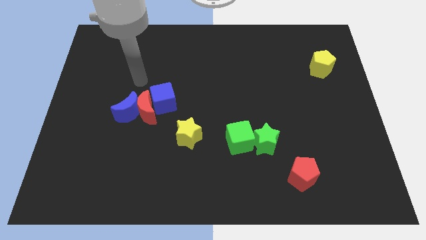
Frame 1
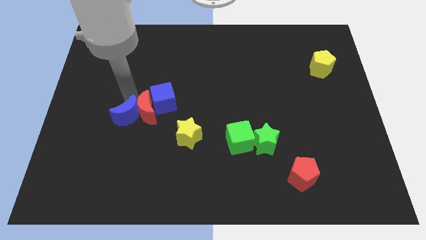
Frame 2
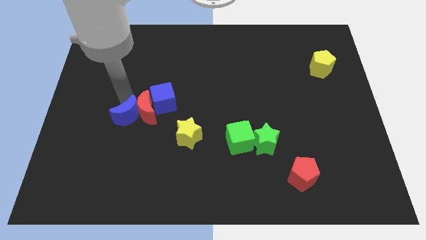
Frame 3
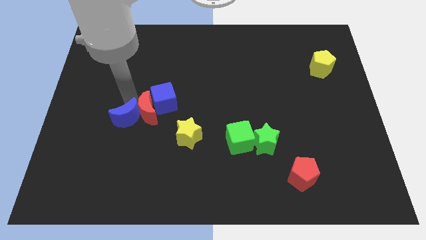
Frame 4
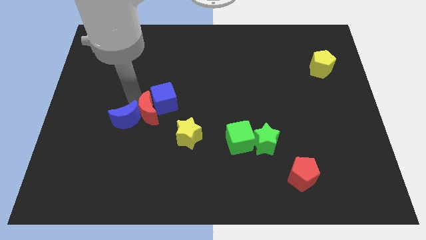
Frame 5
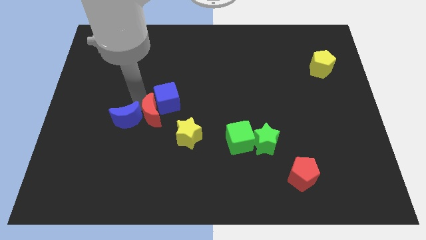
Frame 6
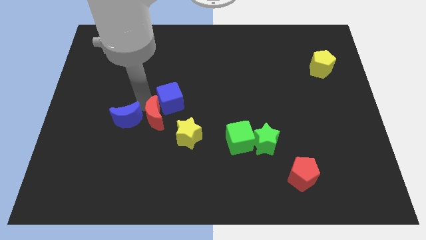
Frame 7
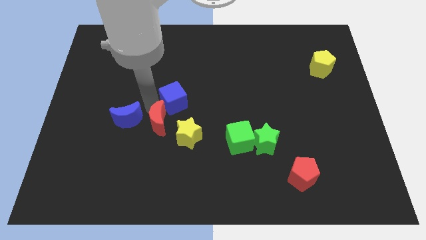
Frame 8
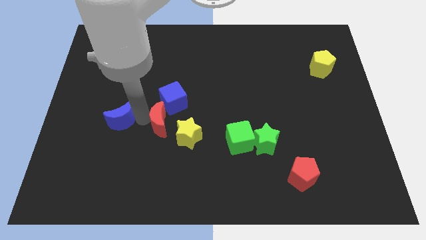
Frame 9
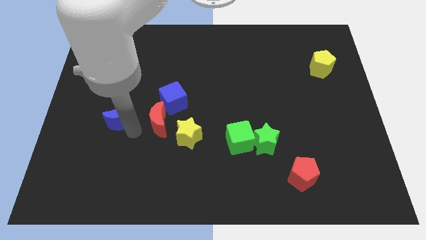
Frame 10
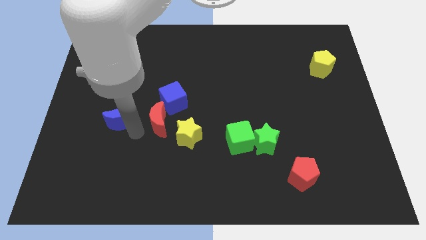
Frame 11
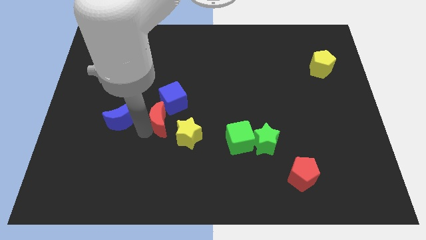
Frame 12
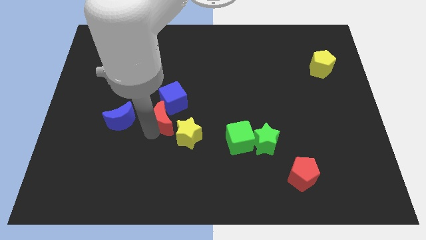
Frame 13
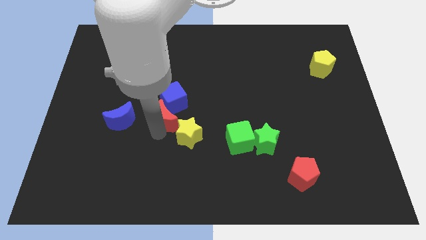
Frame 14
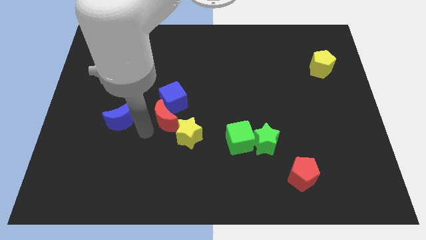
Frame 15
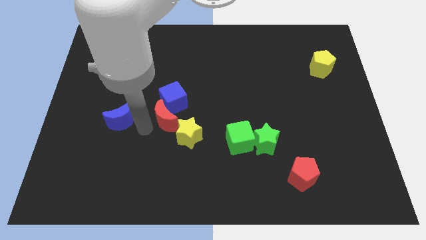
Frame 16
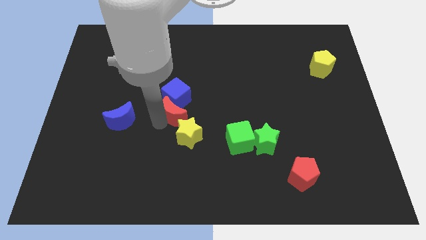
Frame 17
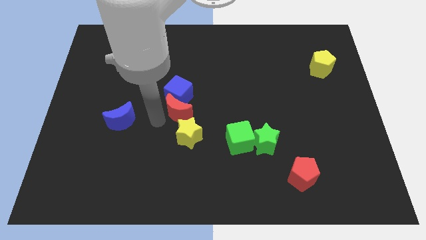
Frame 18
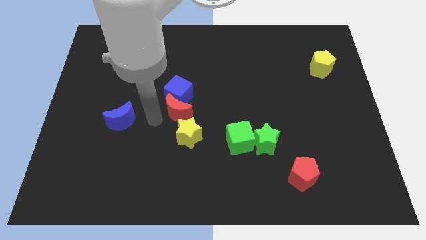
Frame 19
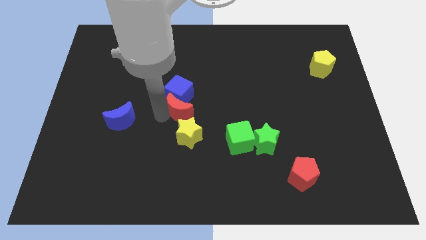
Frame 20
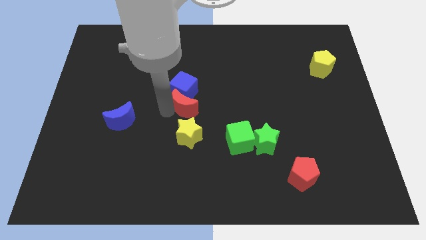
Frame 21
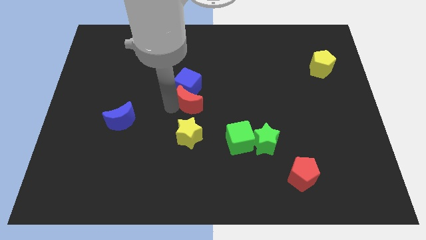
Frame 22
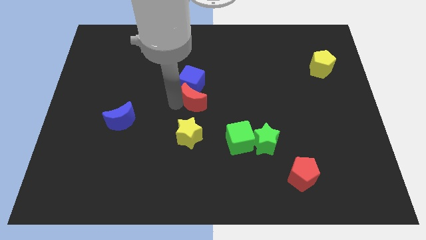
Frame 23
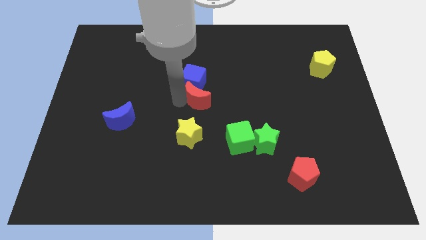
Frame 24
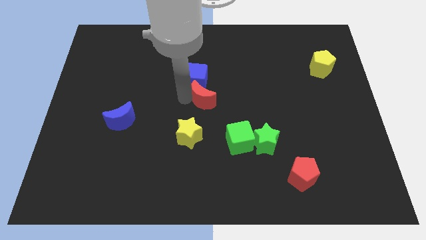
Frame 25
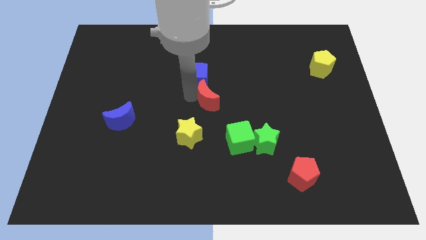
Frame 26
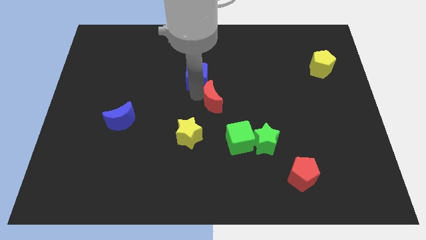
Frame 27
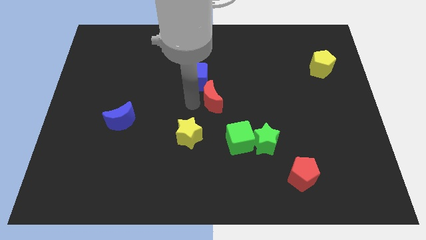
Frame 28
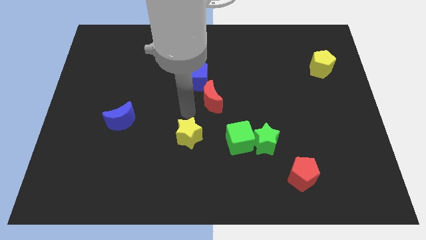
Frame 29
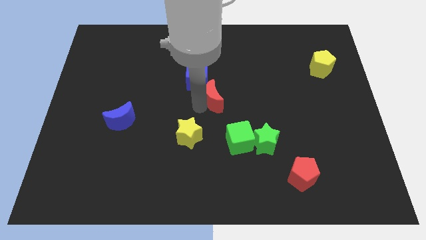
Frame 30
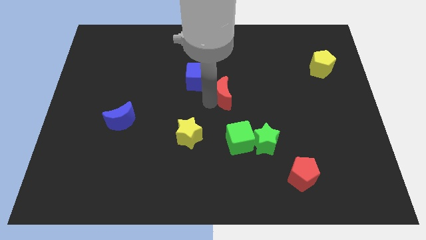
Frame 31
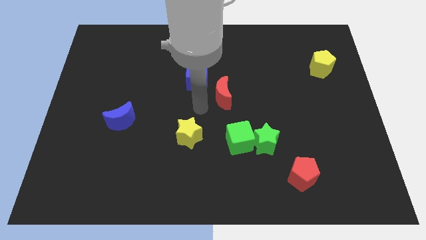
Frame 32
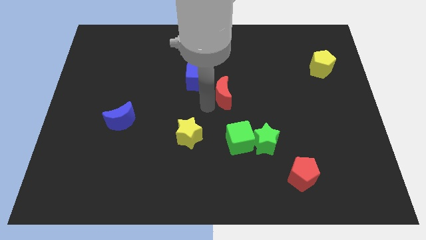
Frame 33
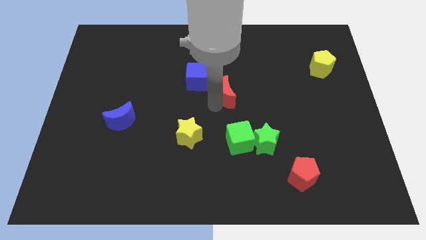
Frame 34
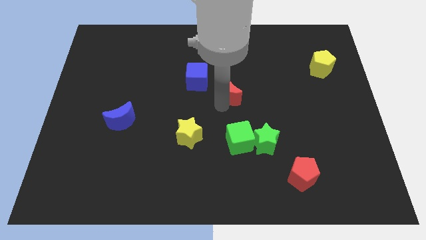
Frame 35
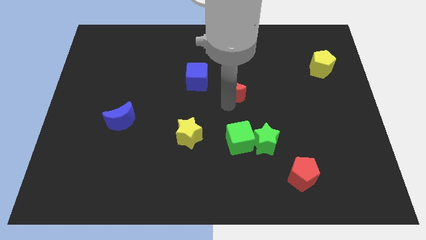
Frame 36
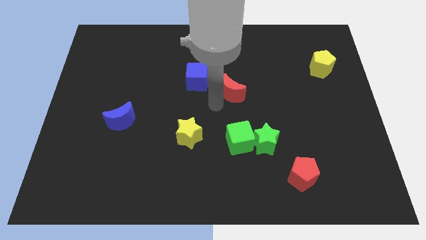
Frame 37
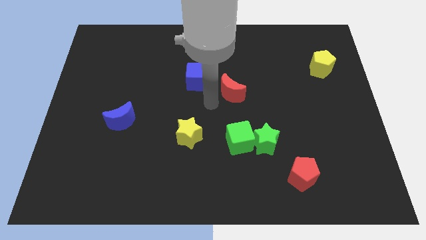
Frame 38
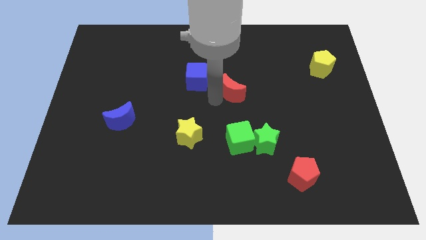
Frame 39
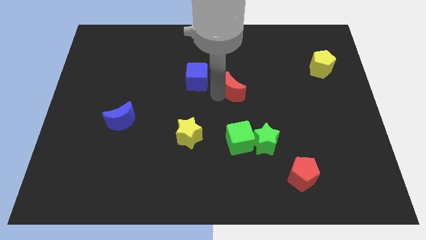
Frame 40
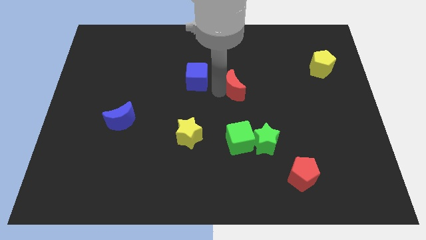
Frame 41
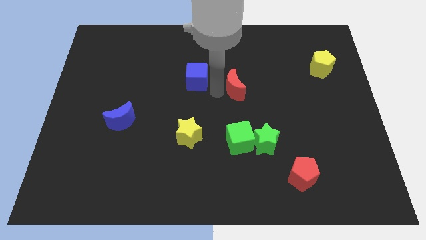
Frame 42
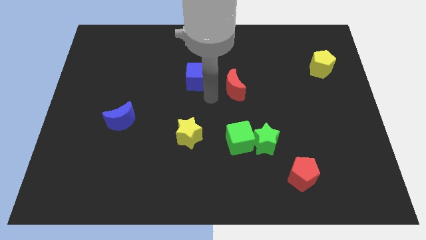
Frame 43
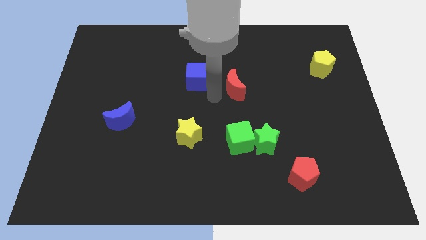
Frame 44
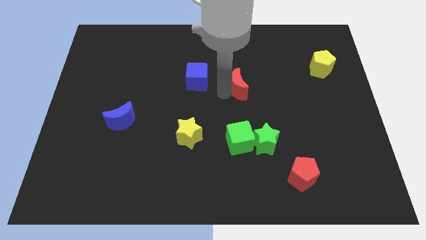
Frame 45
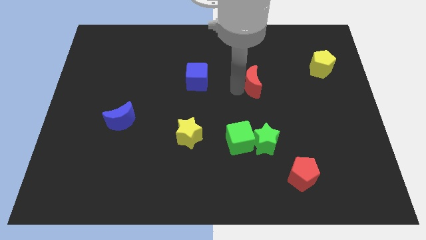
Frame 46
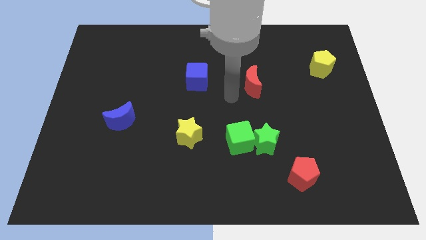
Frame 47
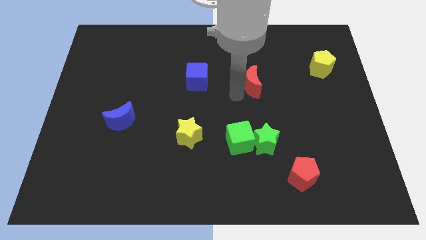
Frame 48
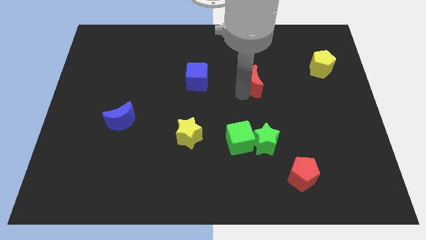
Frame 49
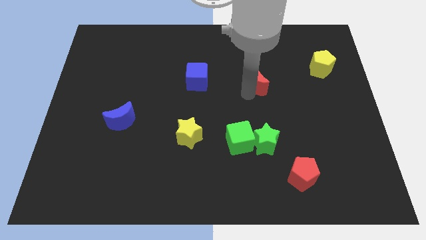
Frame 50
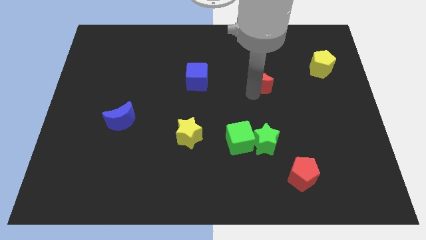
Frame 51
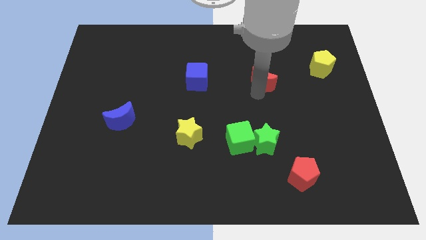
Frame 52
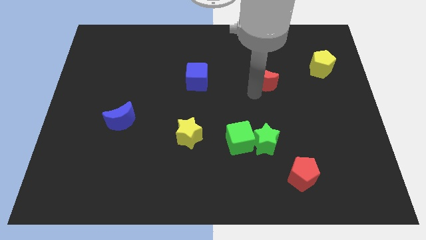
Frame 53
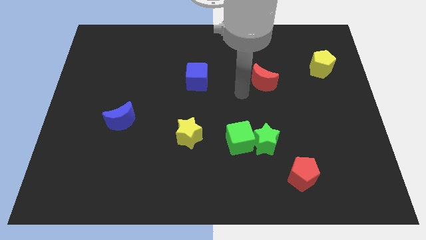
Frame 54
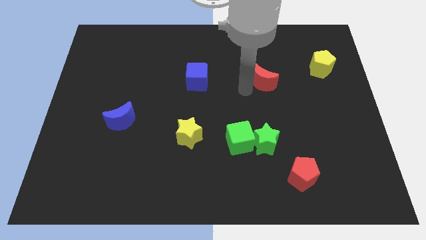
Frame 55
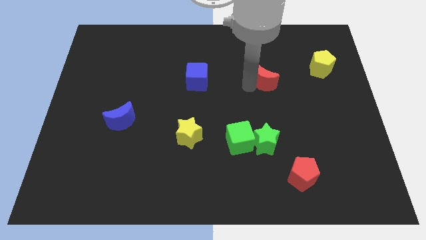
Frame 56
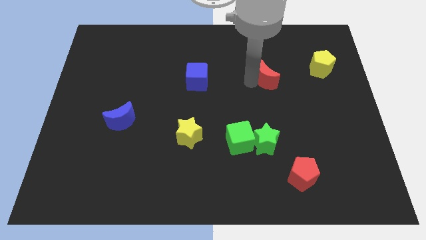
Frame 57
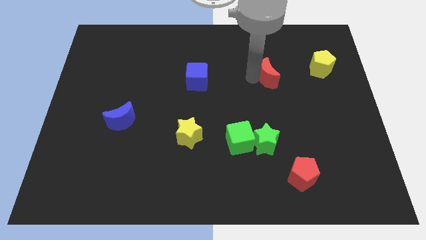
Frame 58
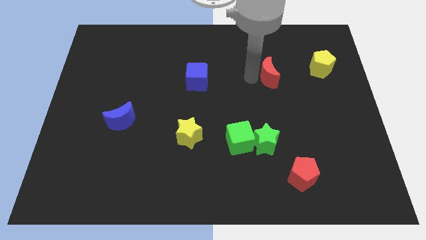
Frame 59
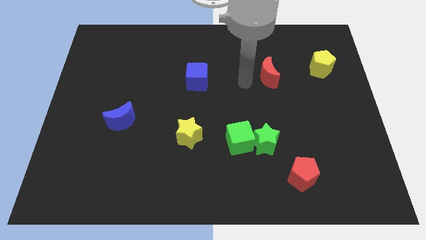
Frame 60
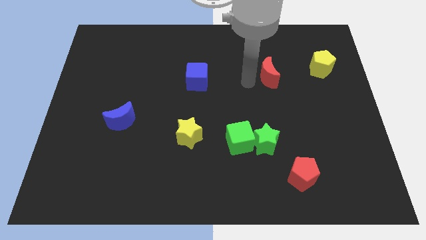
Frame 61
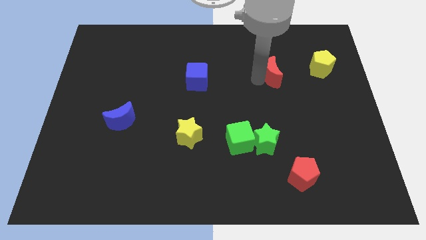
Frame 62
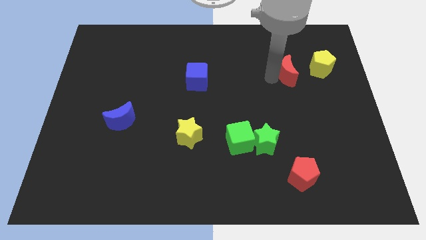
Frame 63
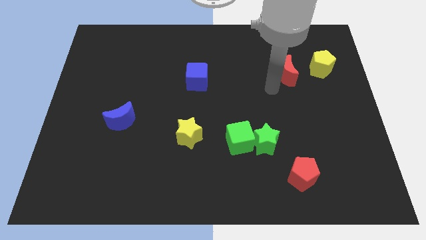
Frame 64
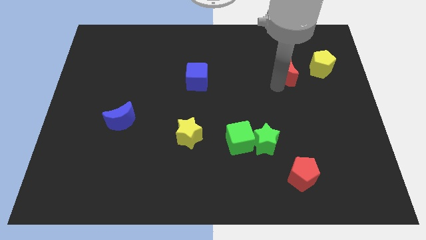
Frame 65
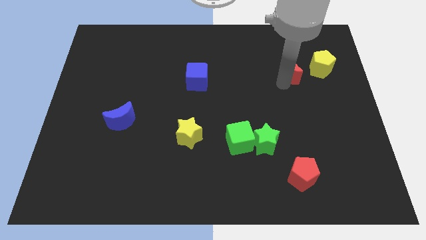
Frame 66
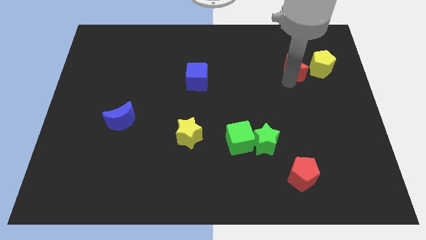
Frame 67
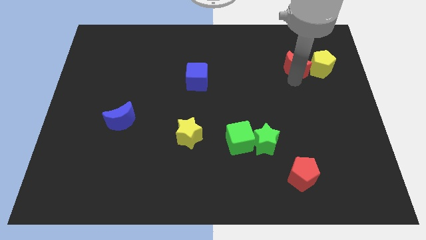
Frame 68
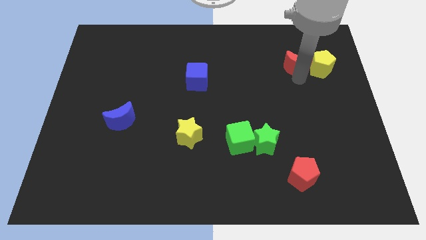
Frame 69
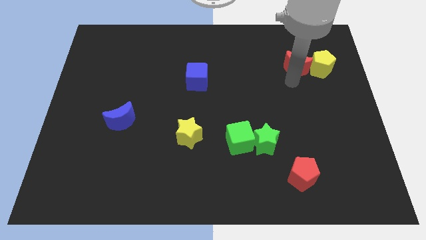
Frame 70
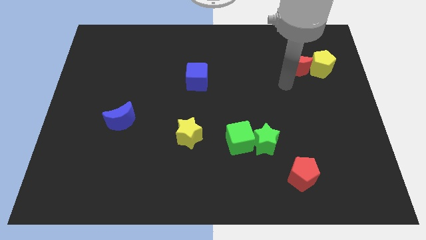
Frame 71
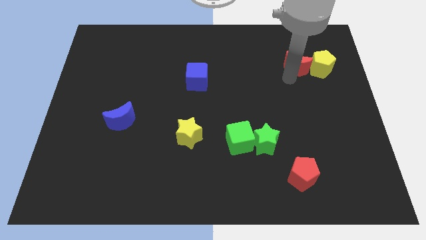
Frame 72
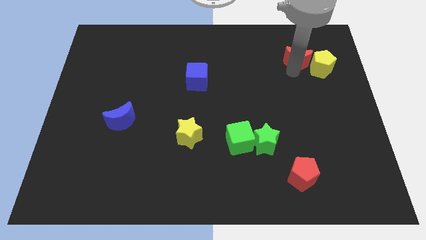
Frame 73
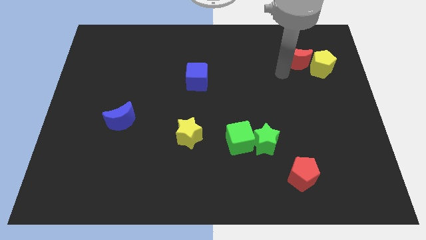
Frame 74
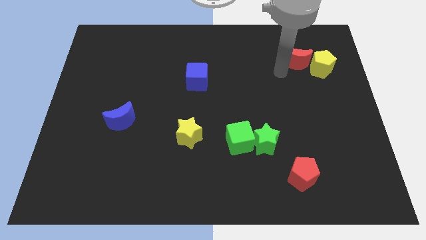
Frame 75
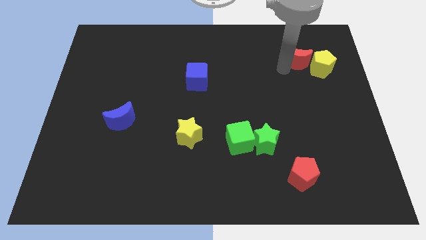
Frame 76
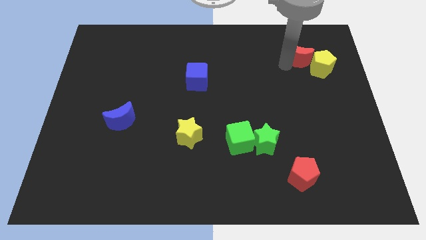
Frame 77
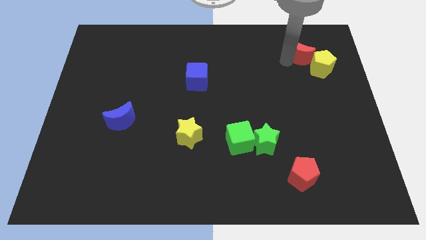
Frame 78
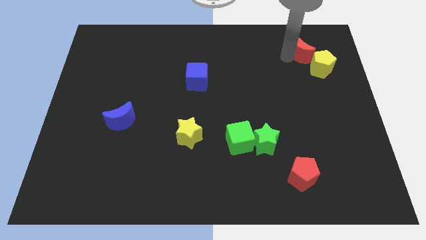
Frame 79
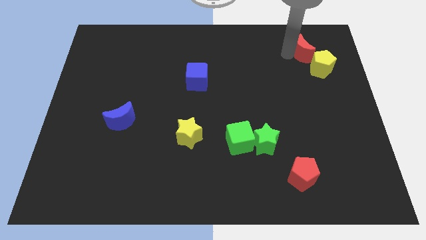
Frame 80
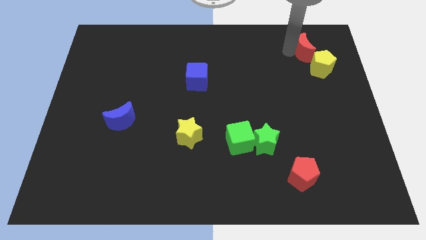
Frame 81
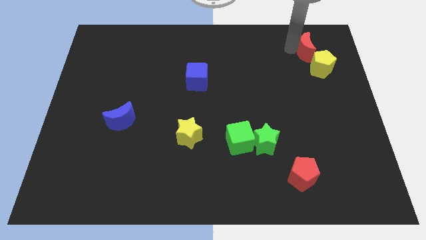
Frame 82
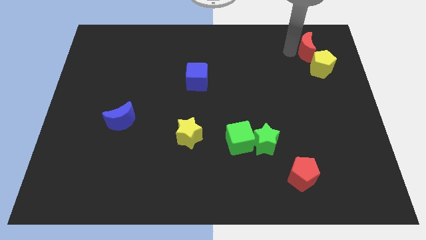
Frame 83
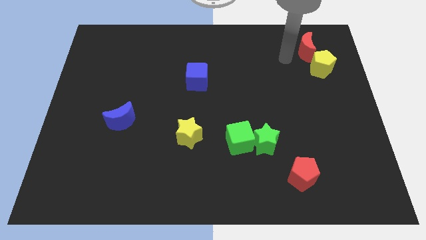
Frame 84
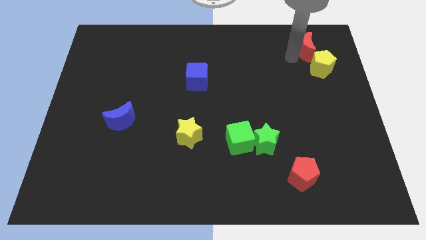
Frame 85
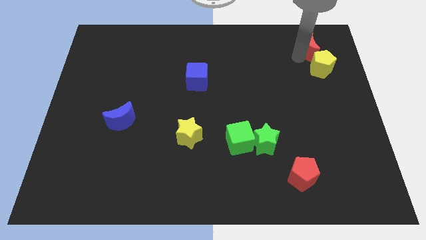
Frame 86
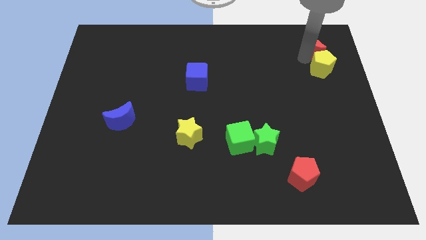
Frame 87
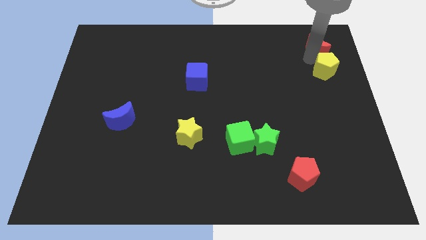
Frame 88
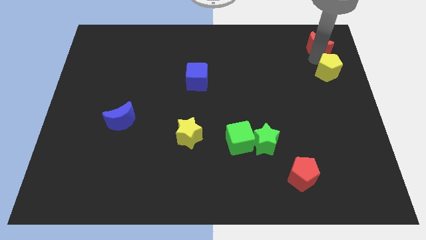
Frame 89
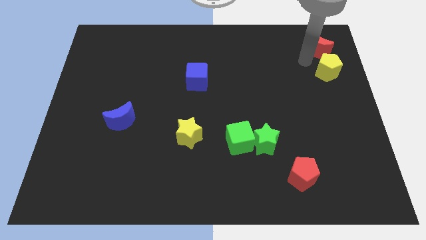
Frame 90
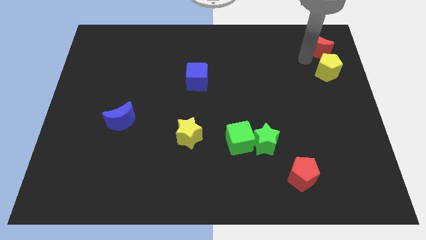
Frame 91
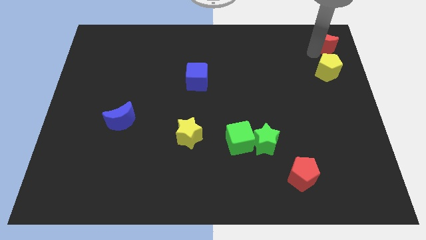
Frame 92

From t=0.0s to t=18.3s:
slide the red moon to the upper right corner
